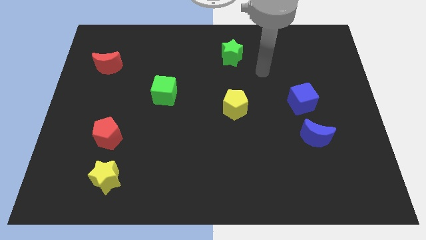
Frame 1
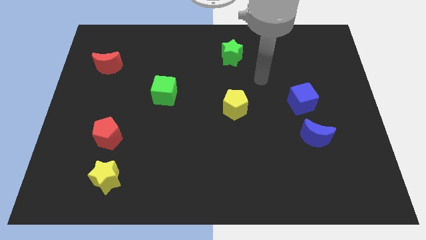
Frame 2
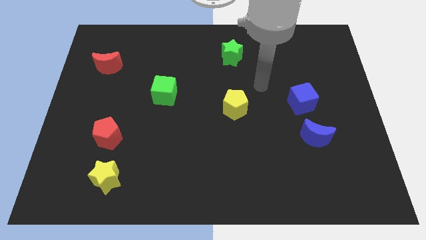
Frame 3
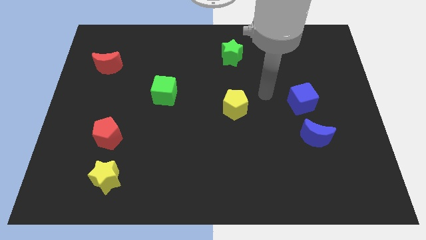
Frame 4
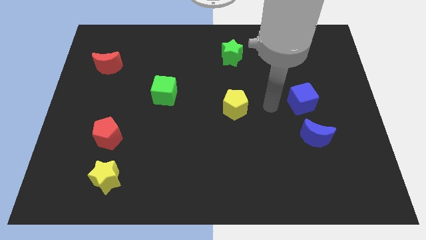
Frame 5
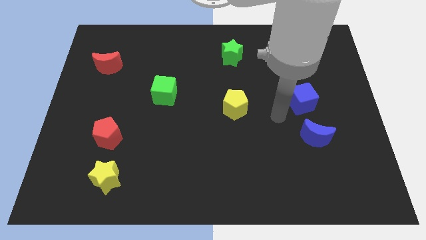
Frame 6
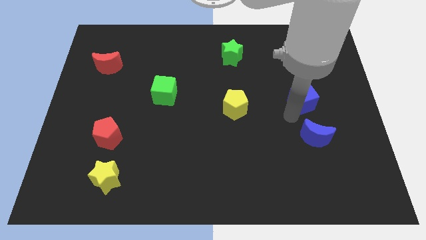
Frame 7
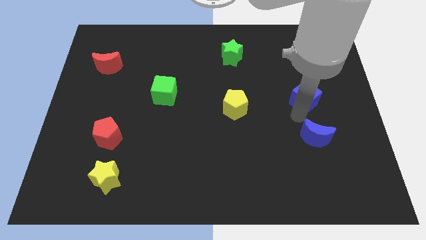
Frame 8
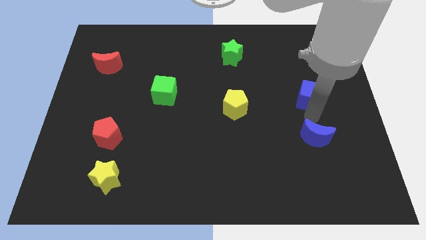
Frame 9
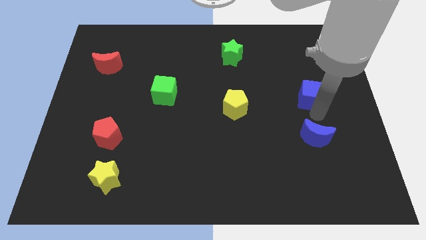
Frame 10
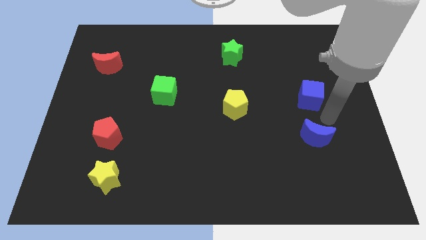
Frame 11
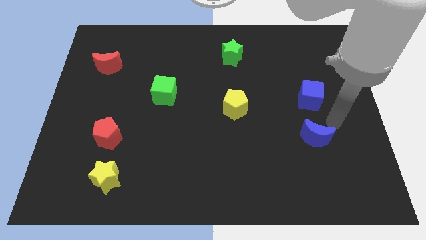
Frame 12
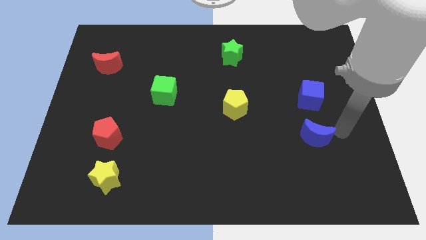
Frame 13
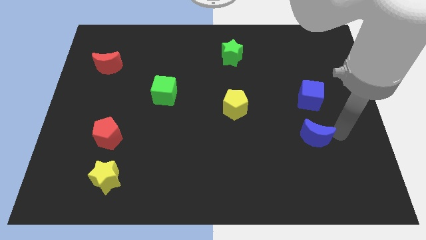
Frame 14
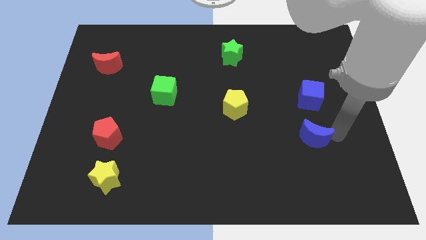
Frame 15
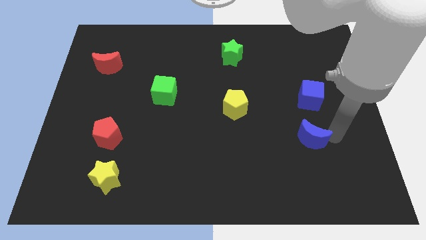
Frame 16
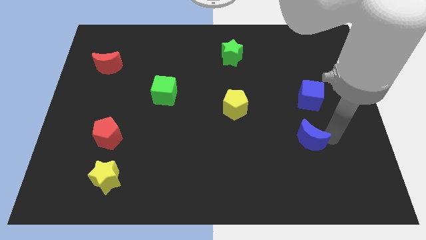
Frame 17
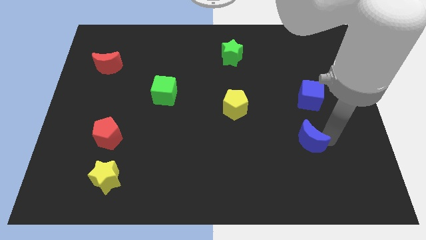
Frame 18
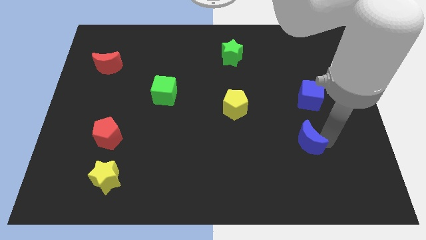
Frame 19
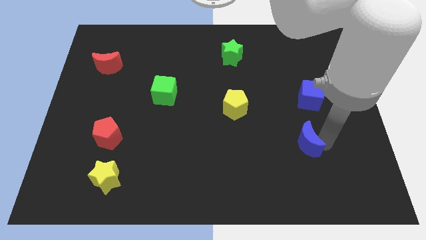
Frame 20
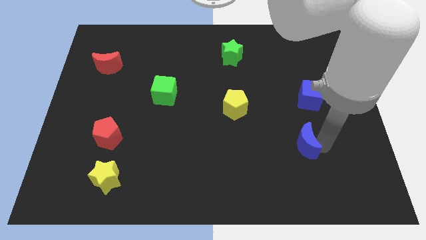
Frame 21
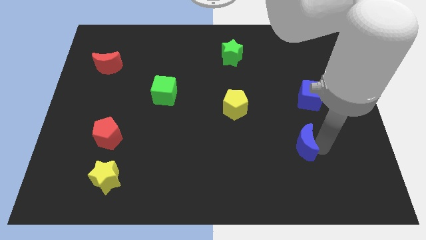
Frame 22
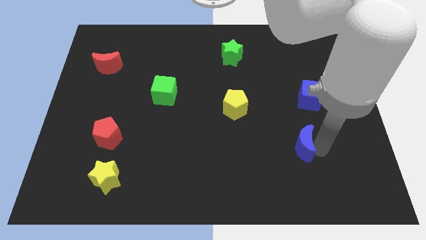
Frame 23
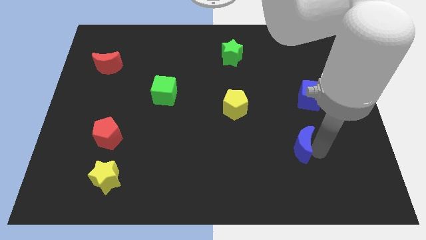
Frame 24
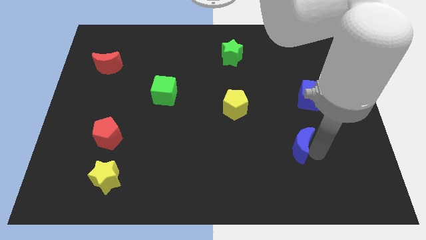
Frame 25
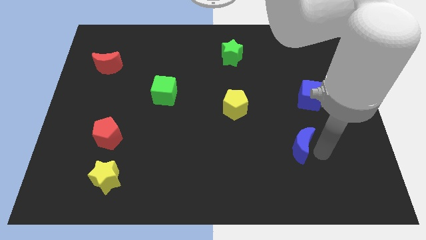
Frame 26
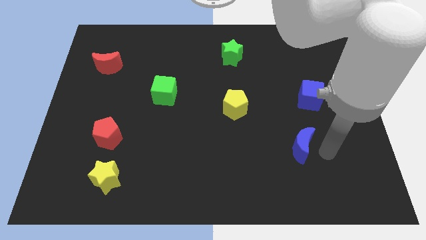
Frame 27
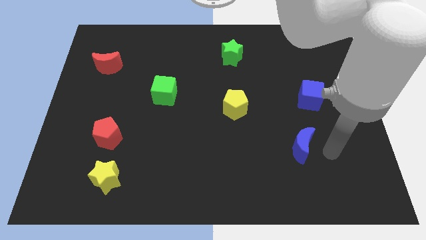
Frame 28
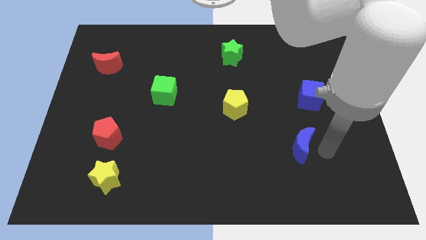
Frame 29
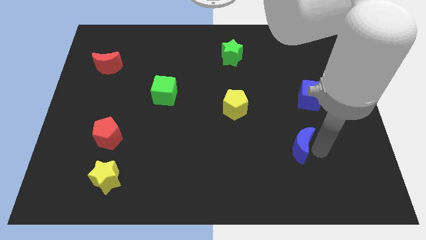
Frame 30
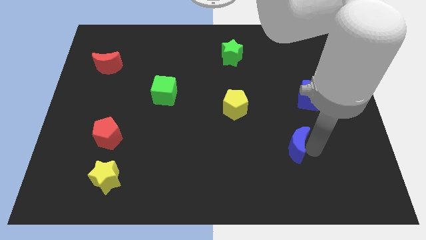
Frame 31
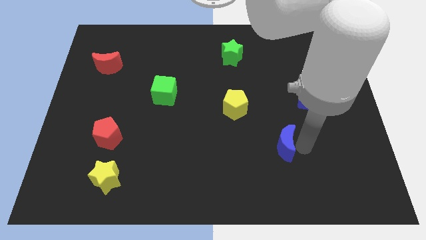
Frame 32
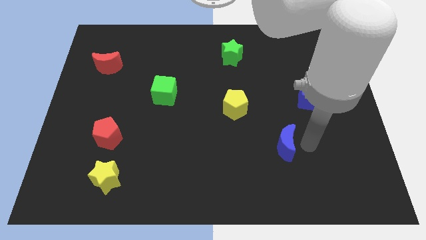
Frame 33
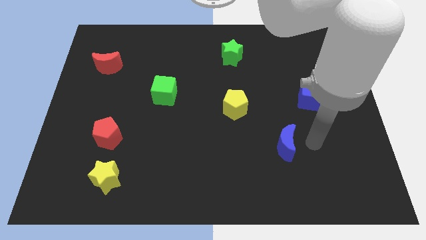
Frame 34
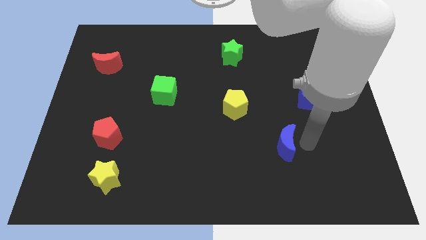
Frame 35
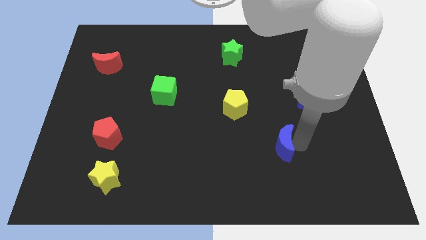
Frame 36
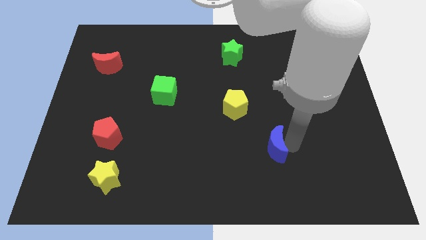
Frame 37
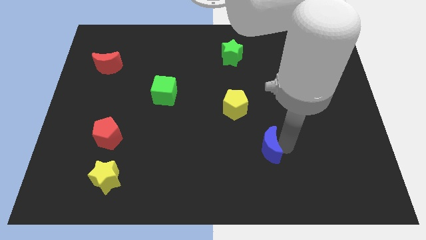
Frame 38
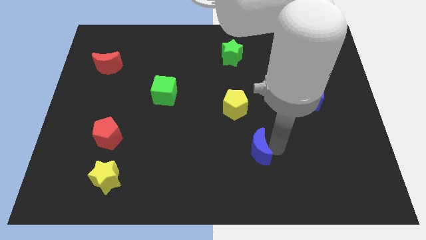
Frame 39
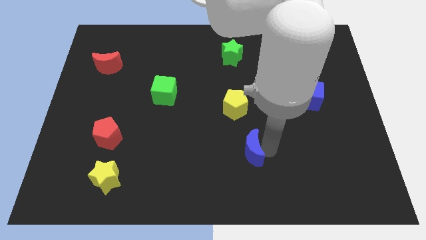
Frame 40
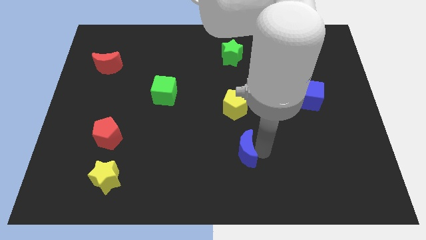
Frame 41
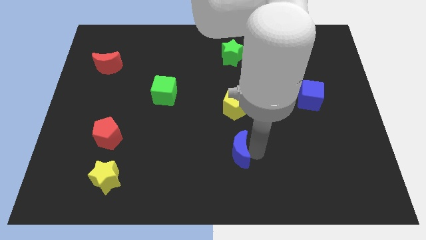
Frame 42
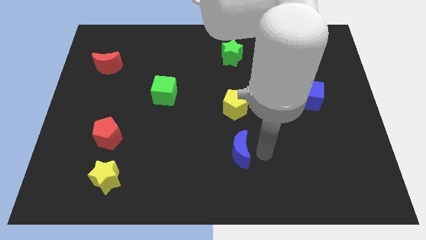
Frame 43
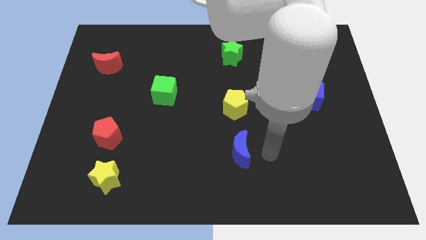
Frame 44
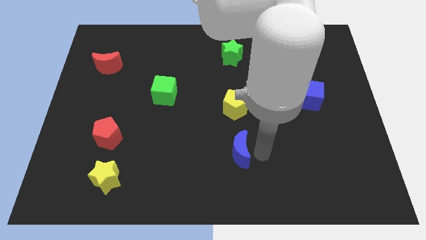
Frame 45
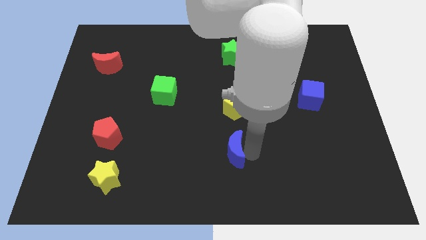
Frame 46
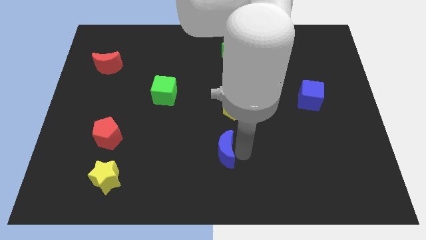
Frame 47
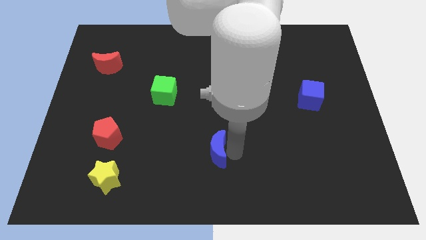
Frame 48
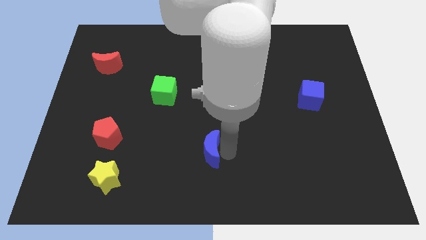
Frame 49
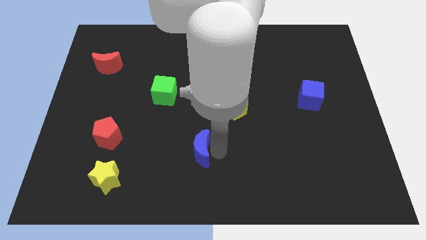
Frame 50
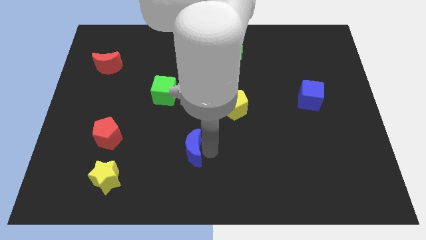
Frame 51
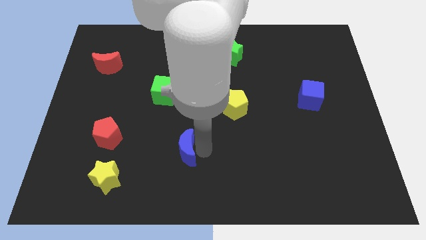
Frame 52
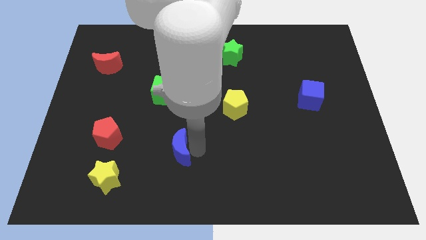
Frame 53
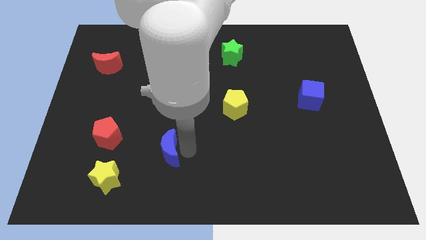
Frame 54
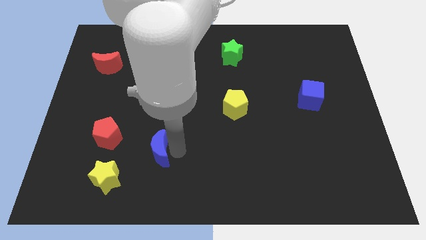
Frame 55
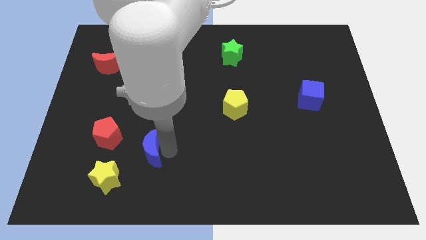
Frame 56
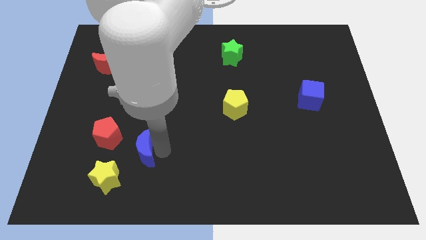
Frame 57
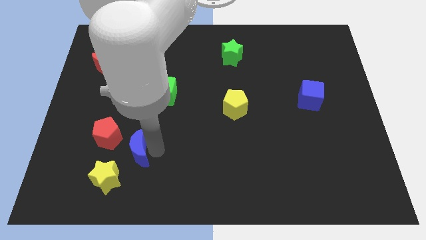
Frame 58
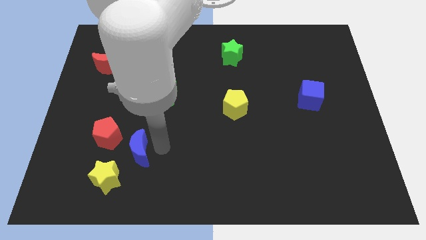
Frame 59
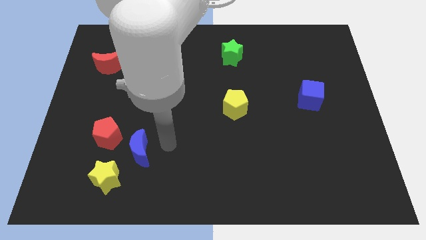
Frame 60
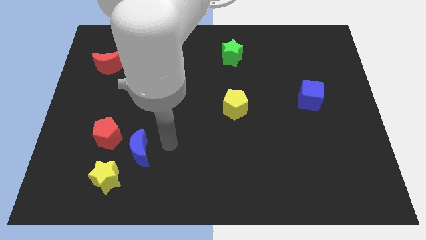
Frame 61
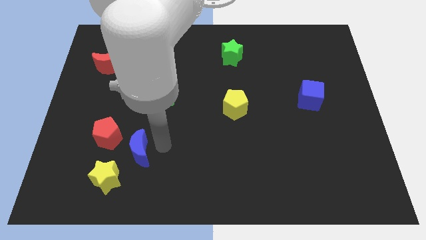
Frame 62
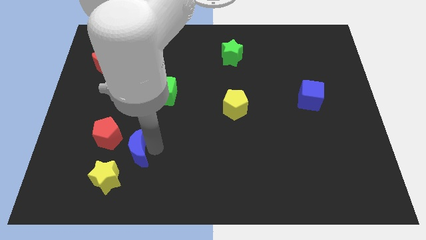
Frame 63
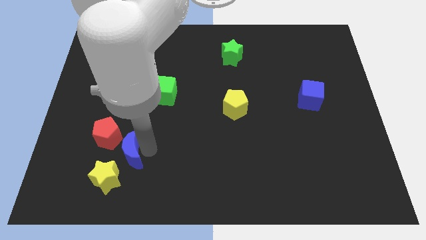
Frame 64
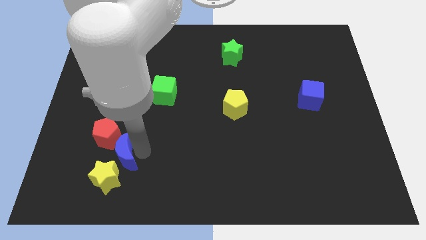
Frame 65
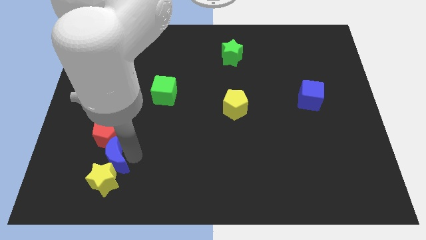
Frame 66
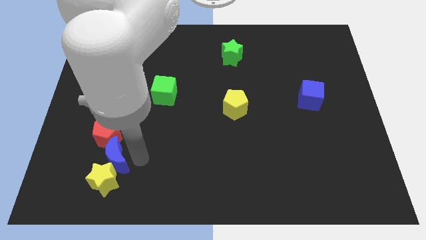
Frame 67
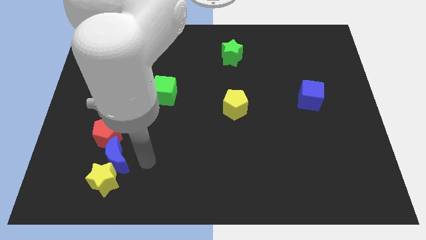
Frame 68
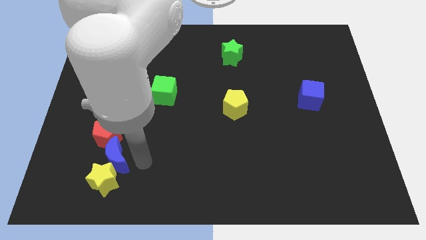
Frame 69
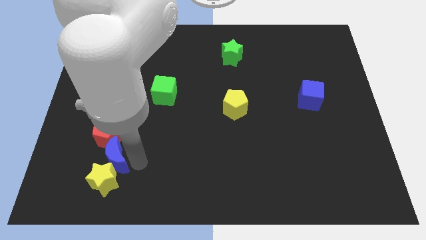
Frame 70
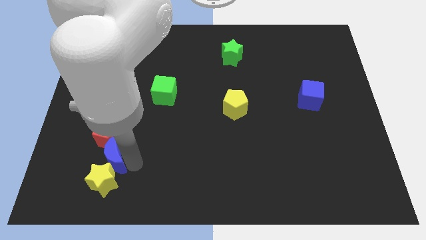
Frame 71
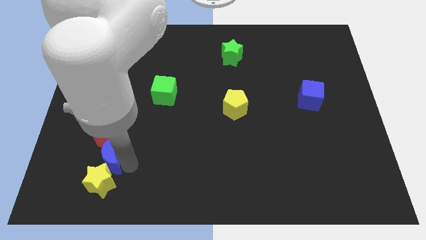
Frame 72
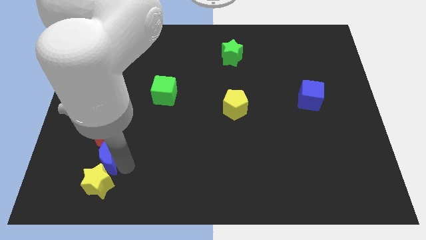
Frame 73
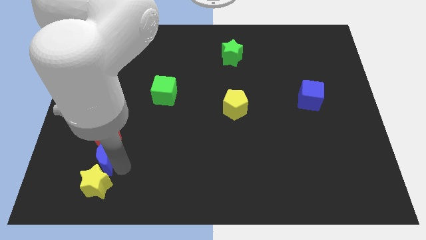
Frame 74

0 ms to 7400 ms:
put the blue moon to the bottom left side of the red pentagon
